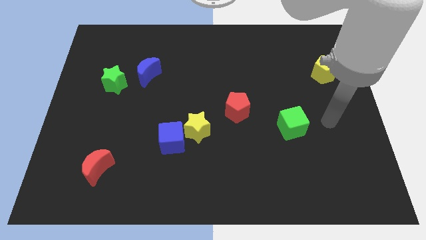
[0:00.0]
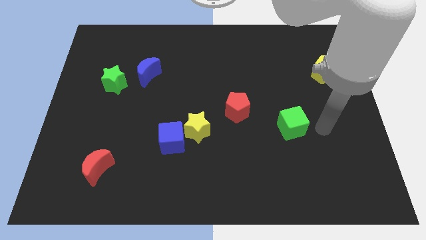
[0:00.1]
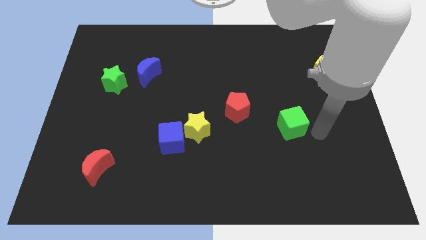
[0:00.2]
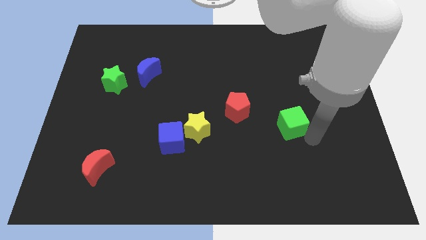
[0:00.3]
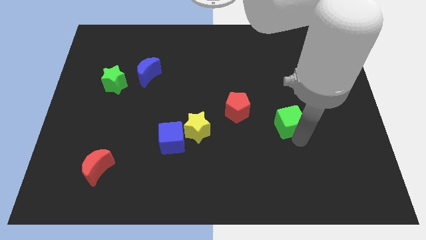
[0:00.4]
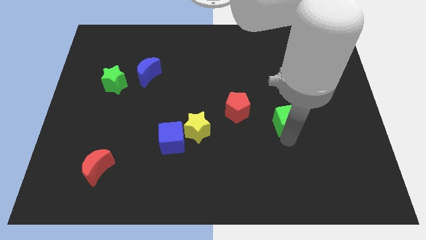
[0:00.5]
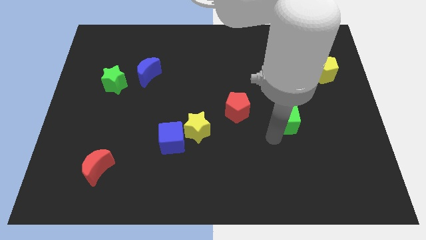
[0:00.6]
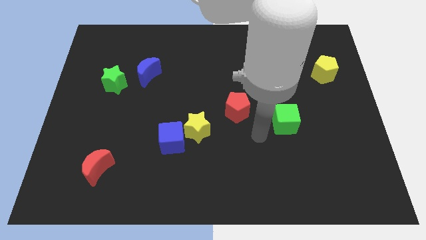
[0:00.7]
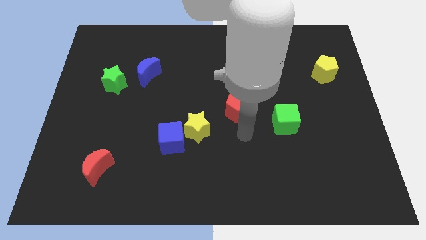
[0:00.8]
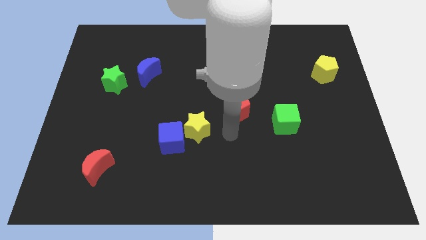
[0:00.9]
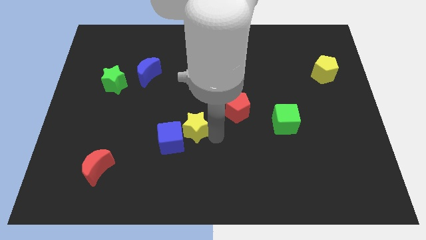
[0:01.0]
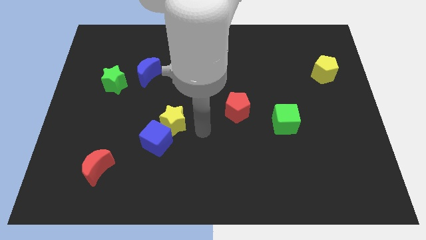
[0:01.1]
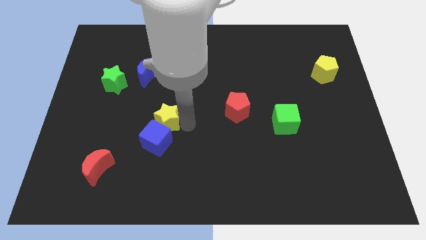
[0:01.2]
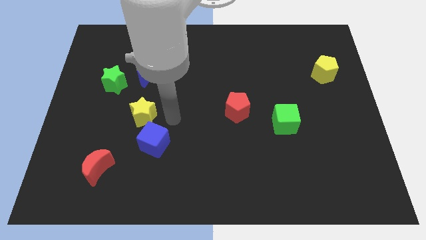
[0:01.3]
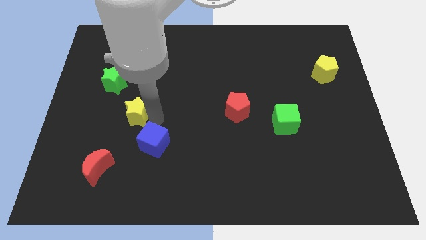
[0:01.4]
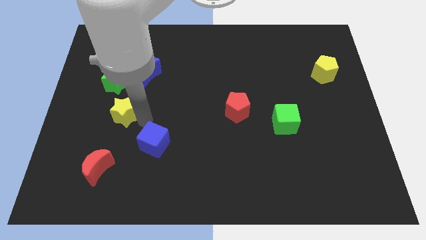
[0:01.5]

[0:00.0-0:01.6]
pull the blue cube apart from the yellow star

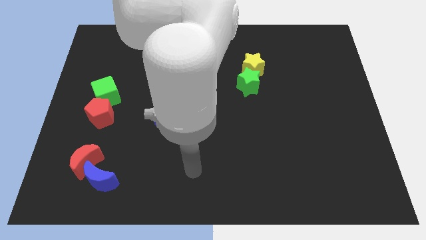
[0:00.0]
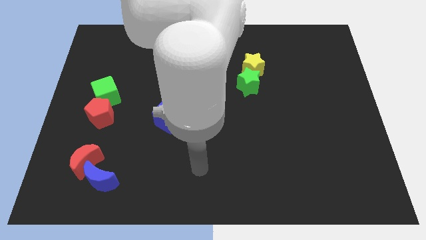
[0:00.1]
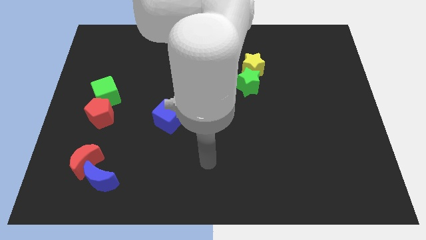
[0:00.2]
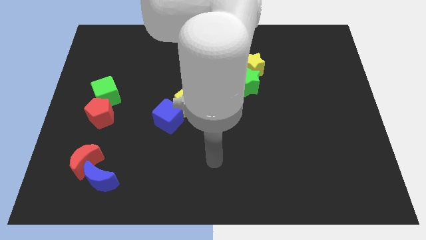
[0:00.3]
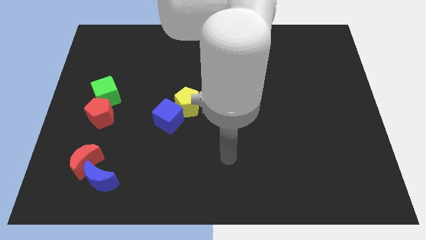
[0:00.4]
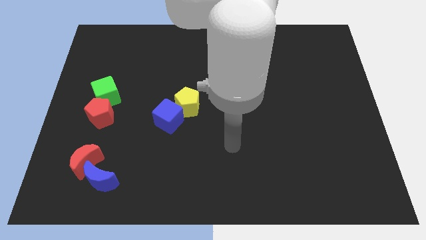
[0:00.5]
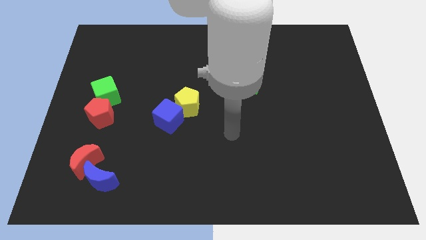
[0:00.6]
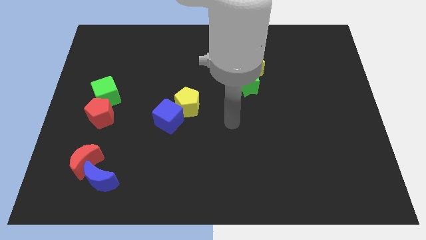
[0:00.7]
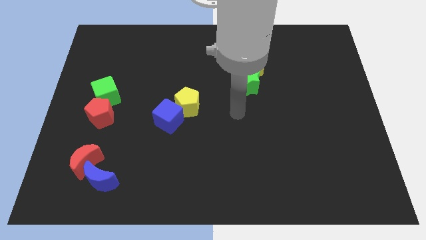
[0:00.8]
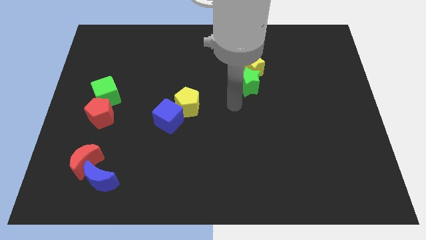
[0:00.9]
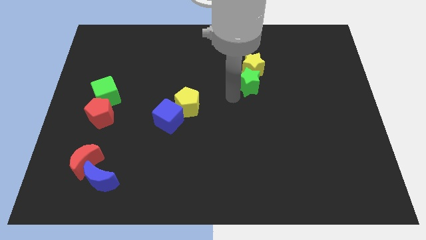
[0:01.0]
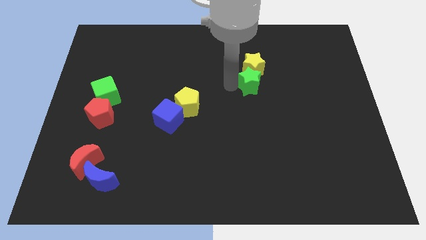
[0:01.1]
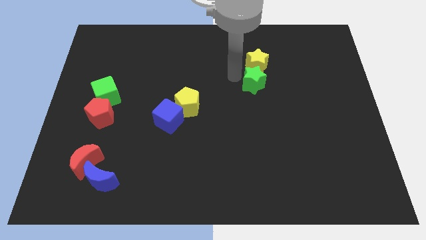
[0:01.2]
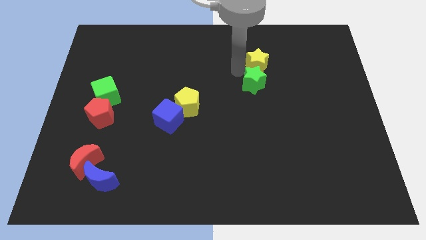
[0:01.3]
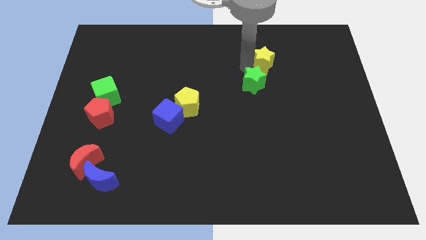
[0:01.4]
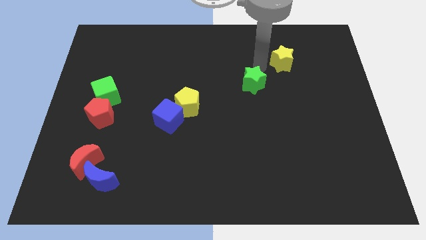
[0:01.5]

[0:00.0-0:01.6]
separate the green star from the yellow star

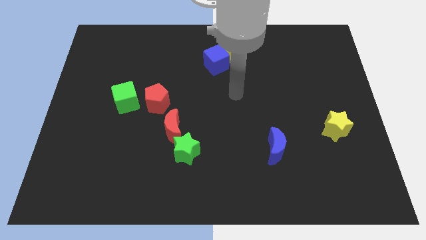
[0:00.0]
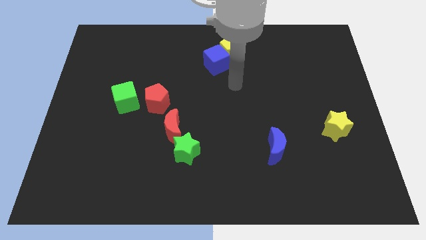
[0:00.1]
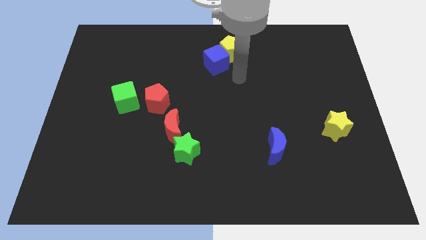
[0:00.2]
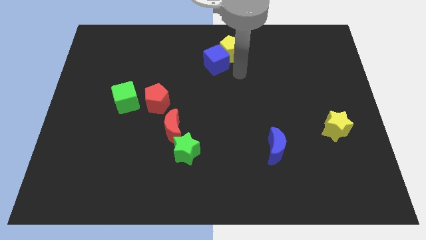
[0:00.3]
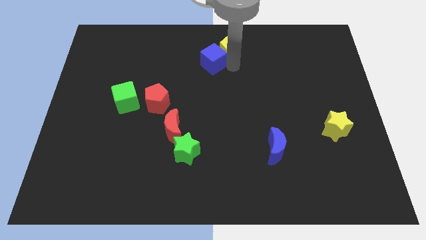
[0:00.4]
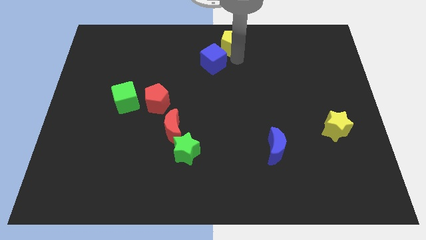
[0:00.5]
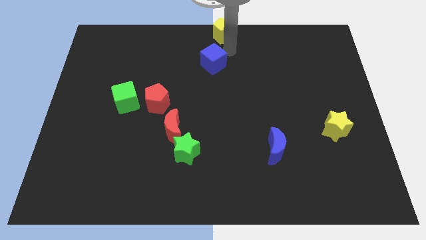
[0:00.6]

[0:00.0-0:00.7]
move the blue cube away from the yellow pentagon

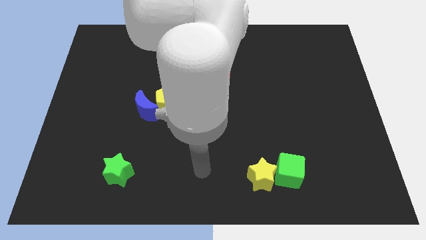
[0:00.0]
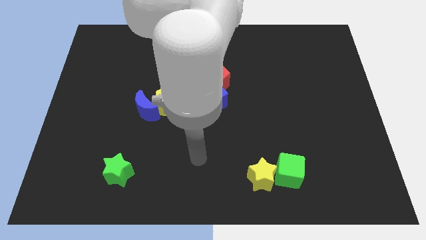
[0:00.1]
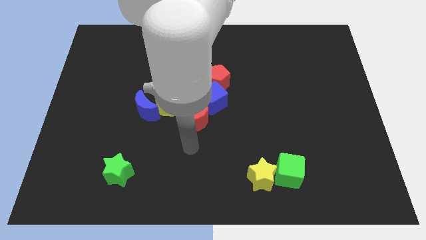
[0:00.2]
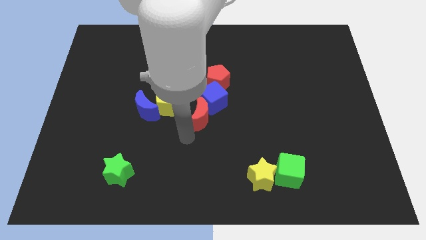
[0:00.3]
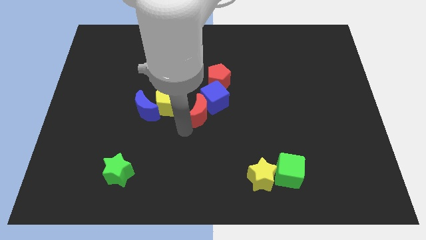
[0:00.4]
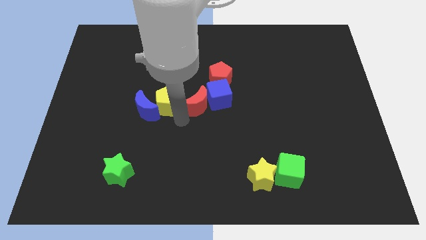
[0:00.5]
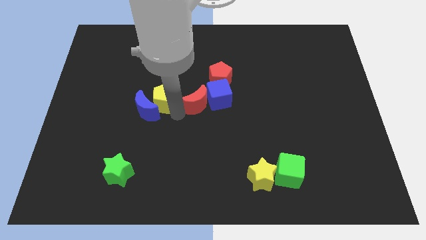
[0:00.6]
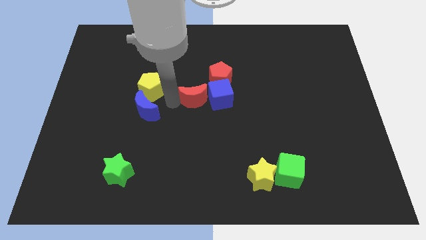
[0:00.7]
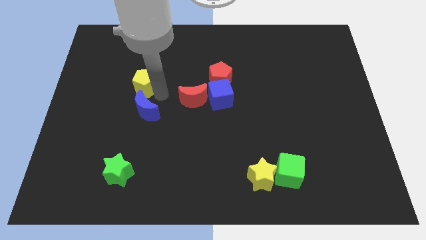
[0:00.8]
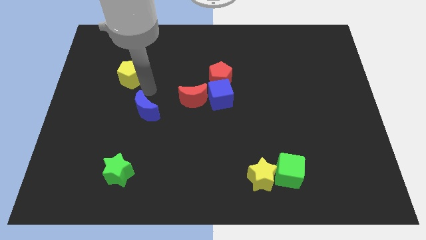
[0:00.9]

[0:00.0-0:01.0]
move the blue moon away from the yellow pentagon

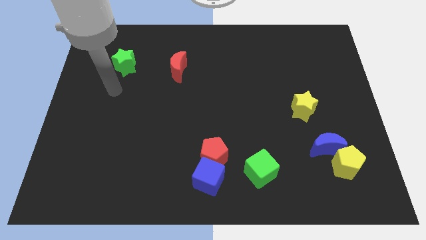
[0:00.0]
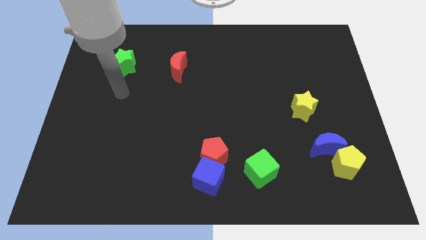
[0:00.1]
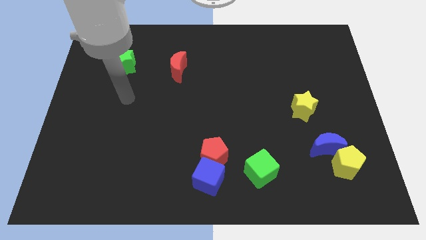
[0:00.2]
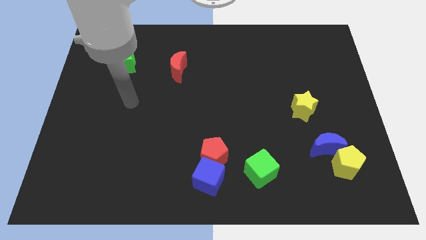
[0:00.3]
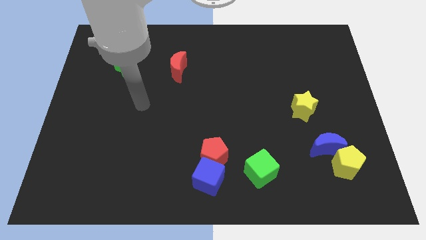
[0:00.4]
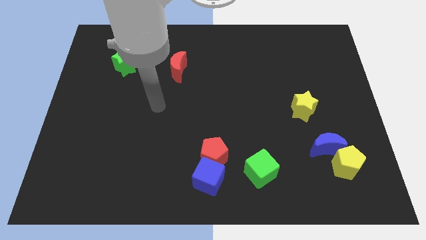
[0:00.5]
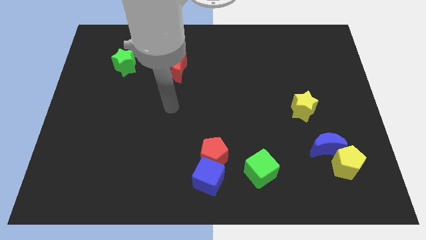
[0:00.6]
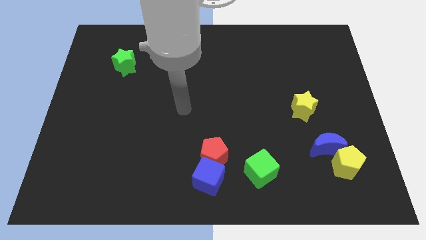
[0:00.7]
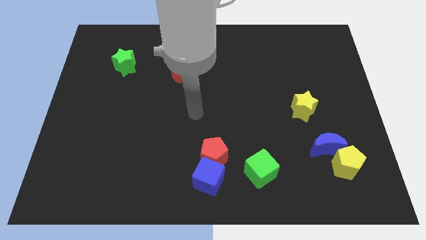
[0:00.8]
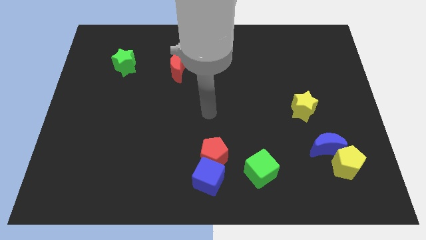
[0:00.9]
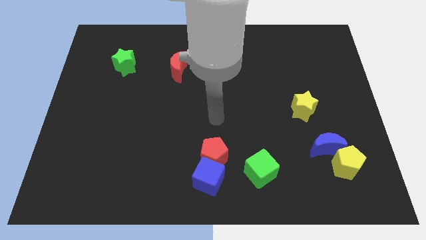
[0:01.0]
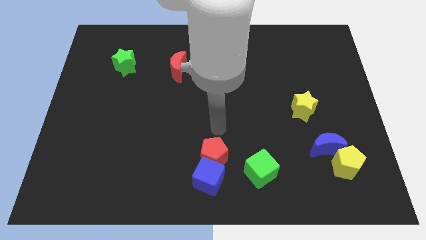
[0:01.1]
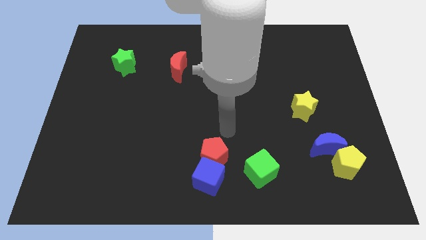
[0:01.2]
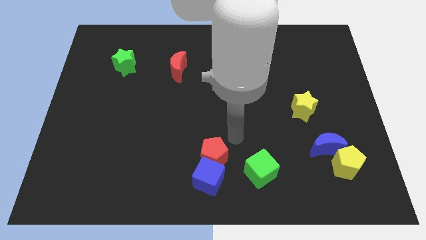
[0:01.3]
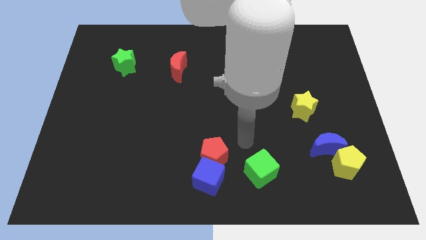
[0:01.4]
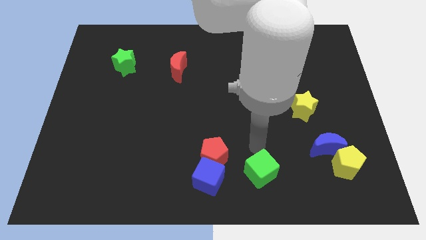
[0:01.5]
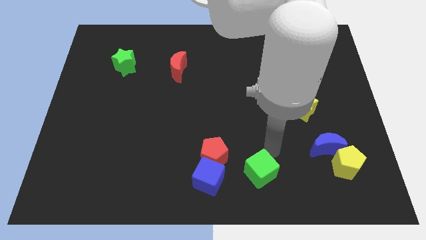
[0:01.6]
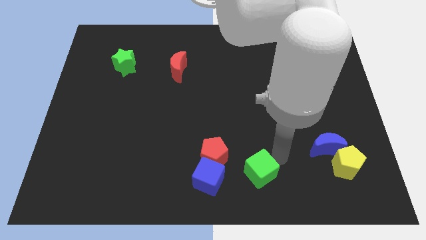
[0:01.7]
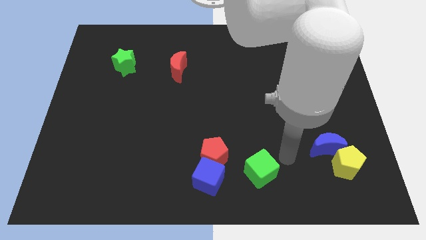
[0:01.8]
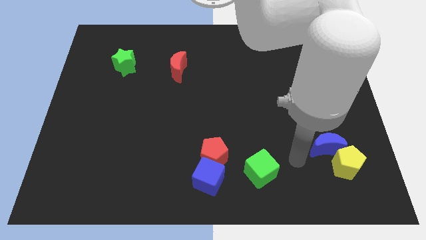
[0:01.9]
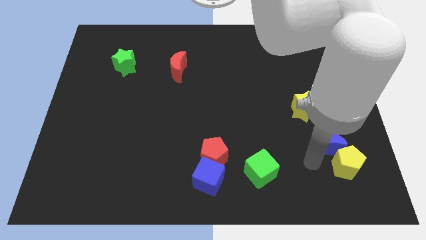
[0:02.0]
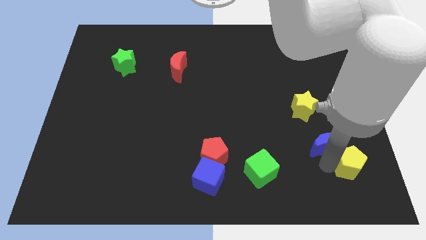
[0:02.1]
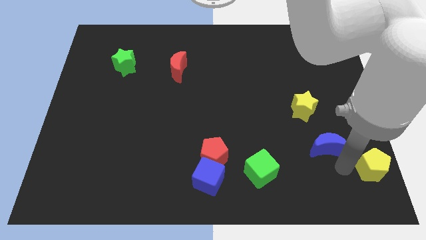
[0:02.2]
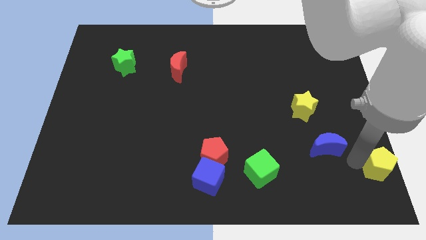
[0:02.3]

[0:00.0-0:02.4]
pull the blue moon apart from the yellow pentagon

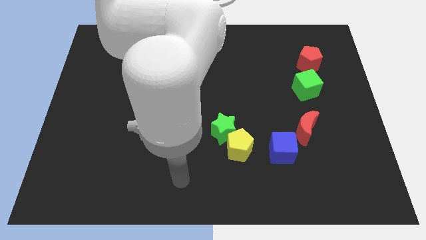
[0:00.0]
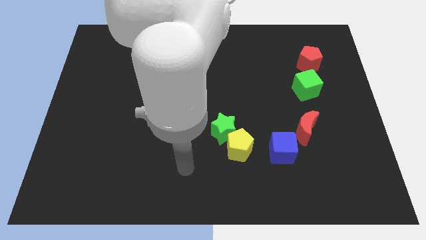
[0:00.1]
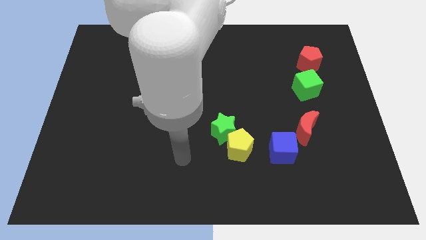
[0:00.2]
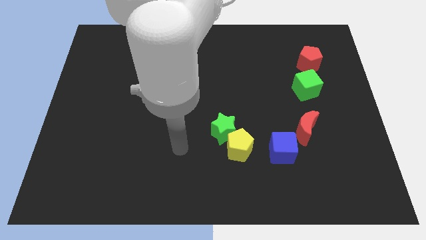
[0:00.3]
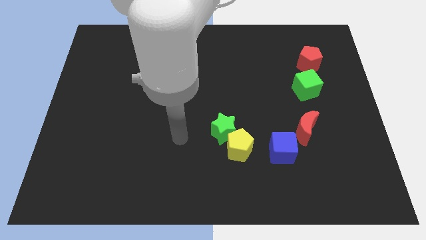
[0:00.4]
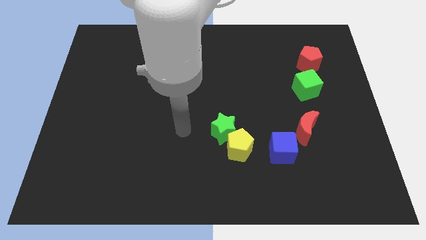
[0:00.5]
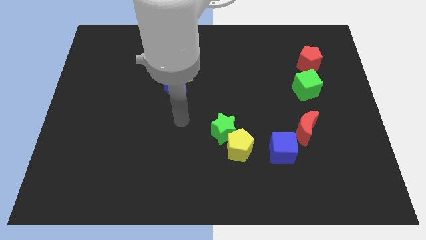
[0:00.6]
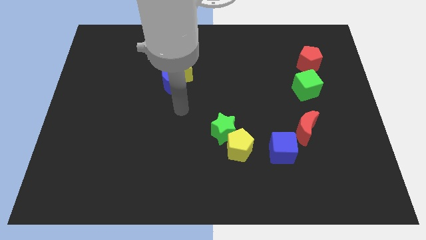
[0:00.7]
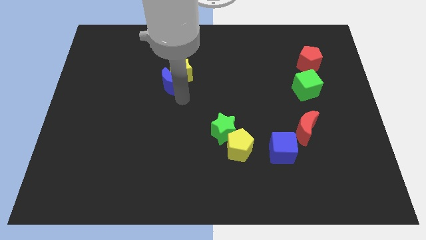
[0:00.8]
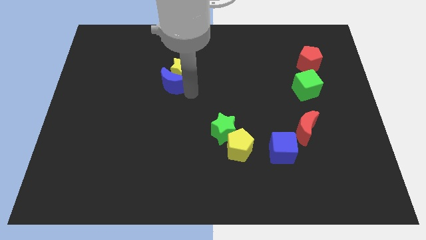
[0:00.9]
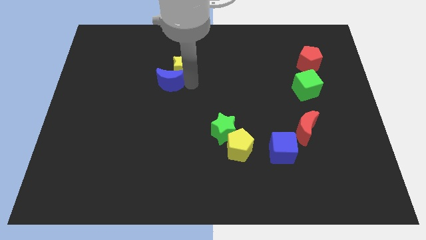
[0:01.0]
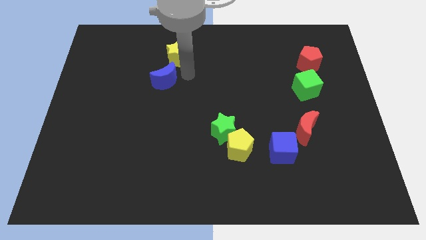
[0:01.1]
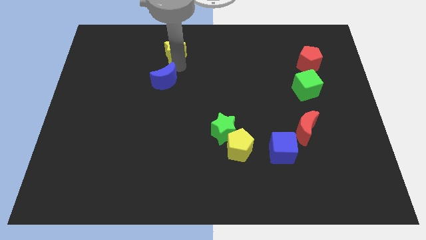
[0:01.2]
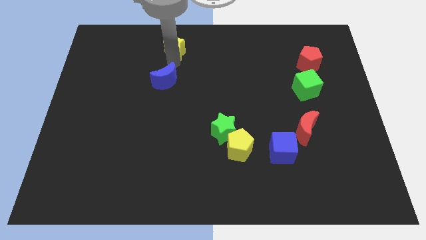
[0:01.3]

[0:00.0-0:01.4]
pull the blue moon apart from the yellow star

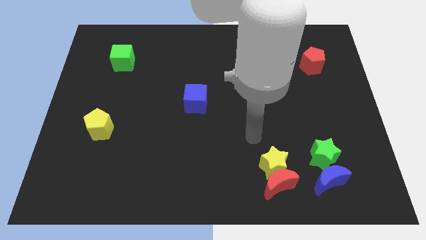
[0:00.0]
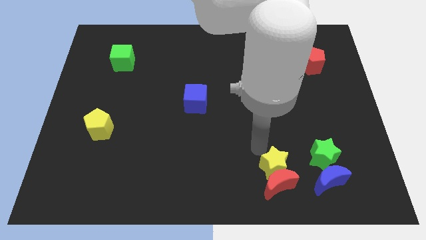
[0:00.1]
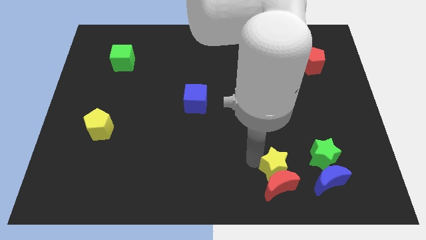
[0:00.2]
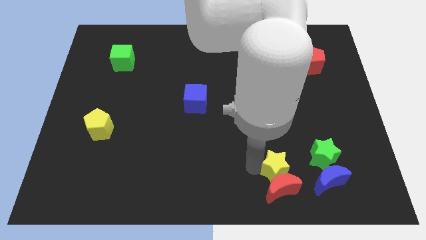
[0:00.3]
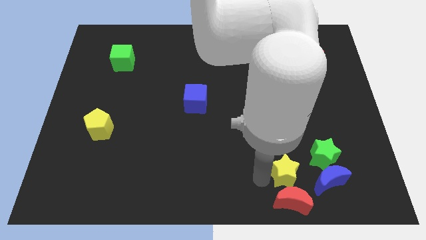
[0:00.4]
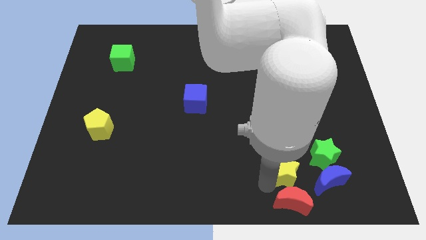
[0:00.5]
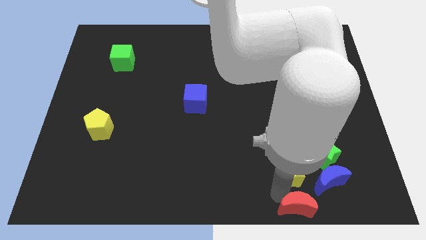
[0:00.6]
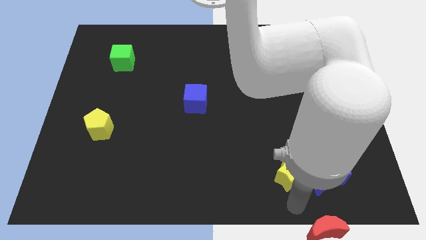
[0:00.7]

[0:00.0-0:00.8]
separate the yellow star from the red moon
